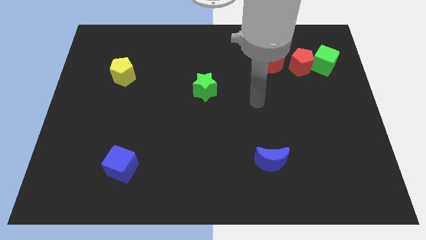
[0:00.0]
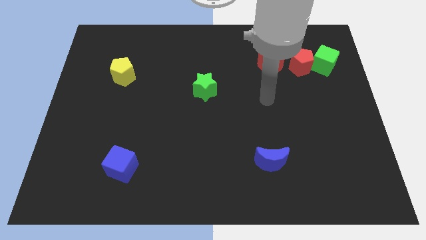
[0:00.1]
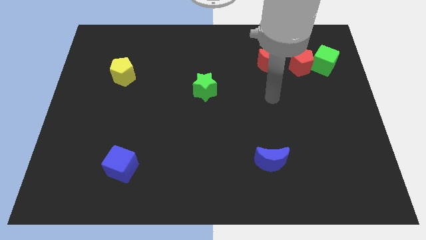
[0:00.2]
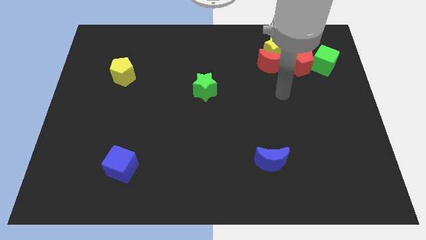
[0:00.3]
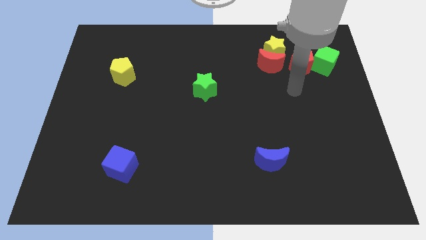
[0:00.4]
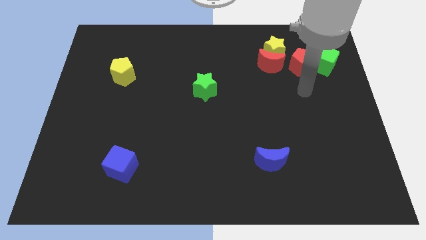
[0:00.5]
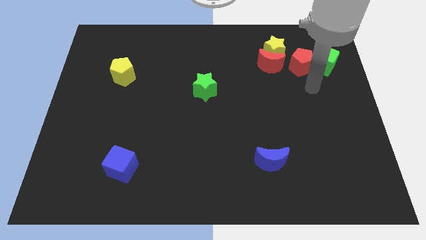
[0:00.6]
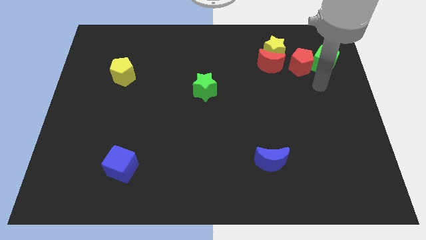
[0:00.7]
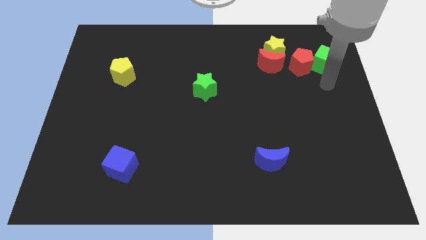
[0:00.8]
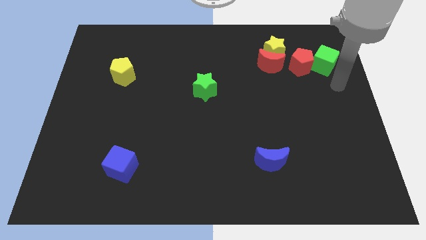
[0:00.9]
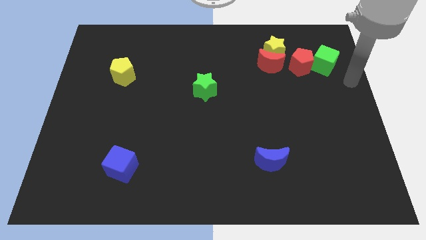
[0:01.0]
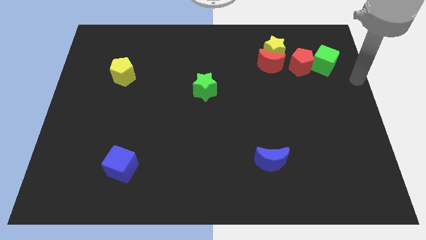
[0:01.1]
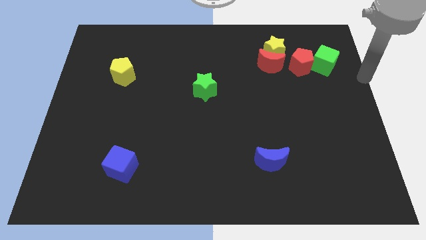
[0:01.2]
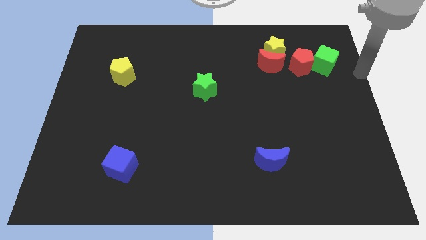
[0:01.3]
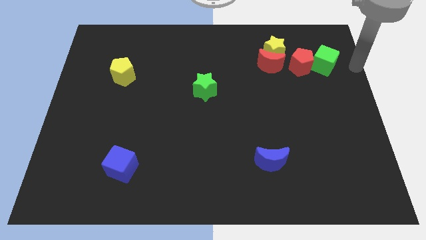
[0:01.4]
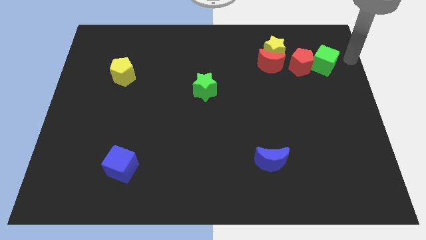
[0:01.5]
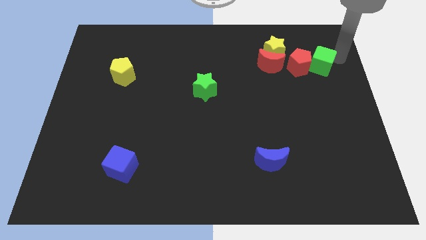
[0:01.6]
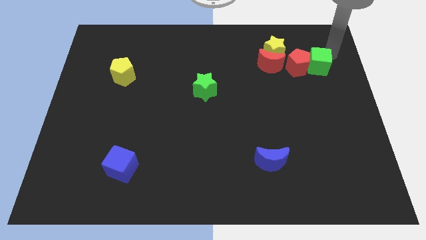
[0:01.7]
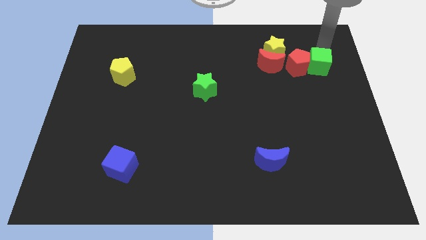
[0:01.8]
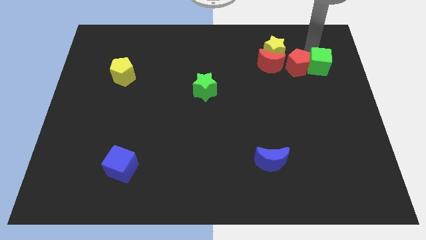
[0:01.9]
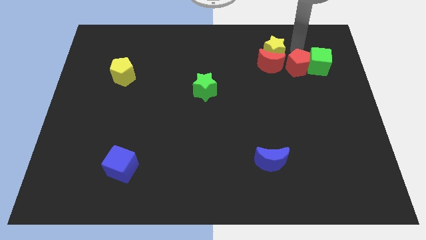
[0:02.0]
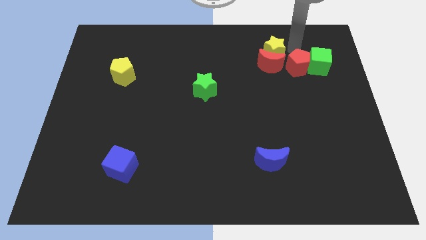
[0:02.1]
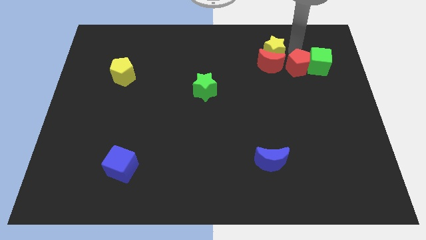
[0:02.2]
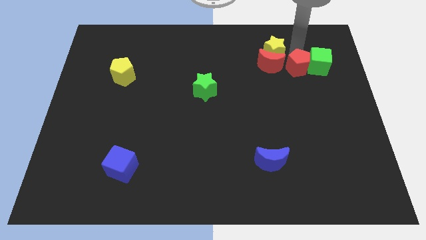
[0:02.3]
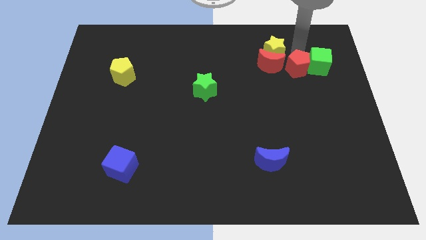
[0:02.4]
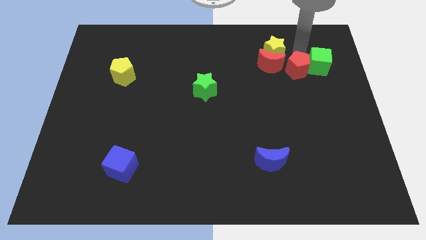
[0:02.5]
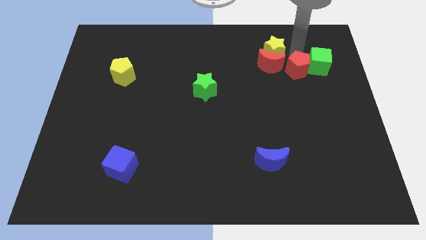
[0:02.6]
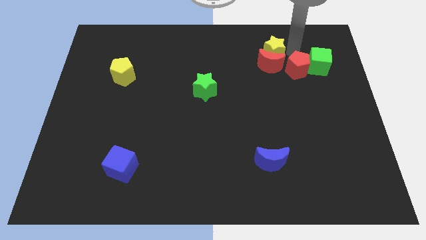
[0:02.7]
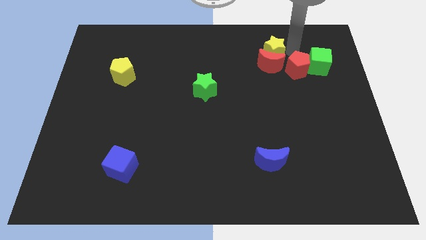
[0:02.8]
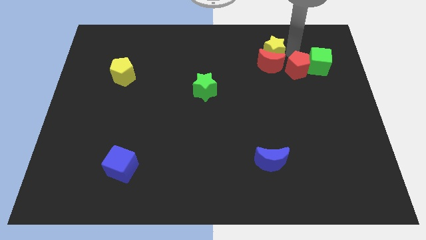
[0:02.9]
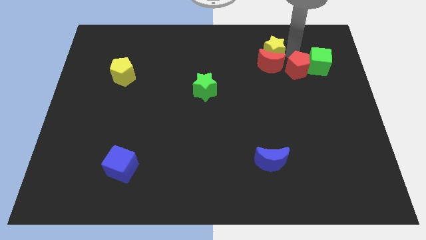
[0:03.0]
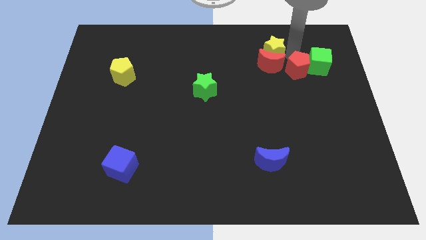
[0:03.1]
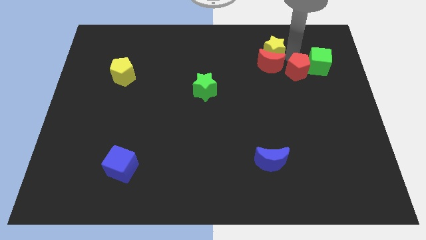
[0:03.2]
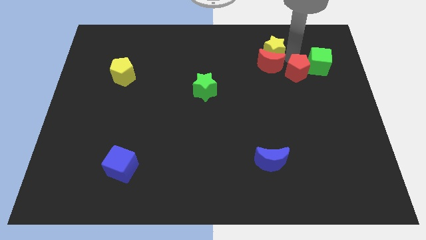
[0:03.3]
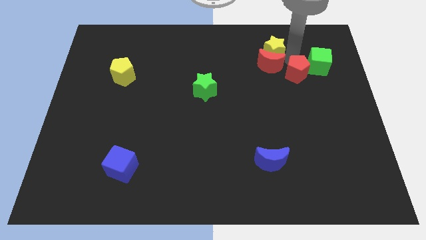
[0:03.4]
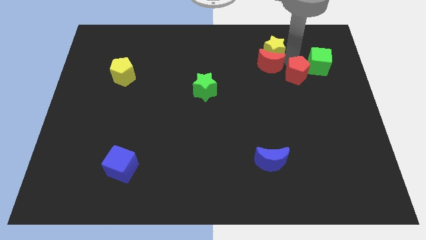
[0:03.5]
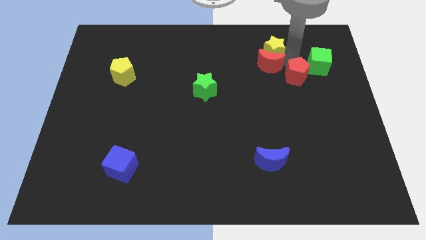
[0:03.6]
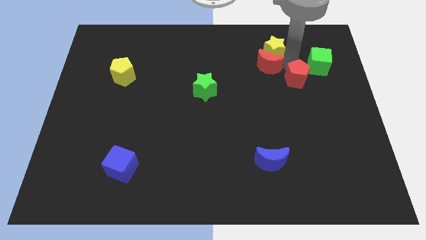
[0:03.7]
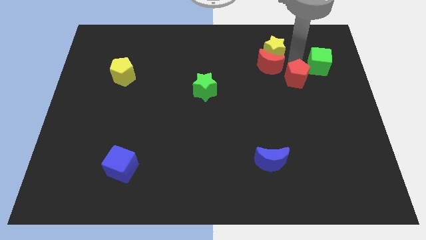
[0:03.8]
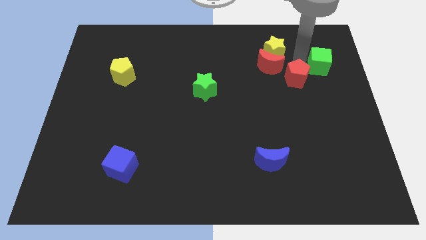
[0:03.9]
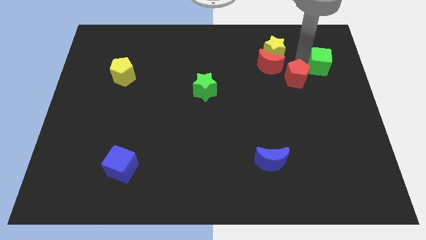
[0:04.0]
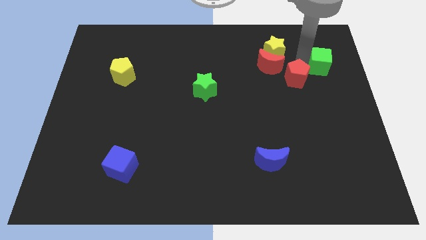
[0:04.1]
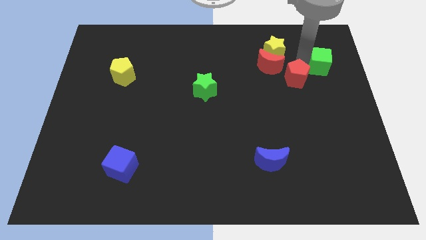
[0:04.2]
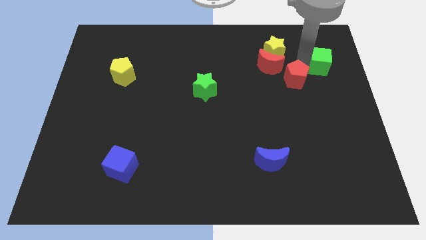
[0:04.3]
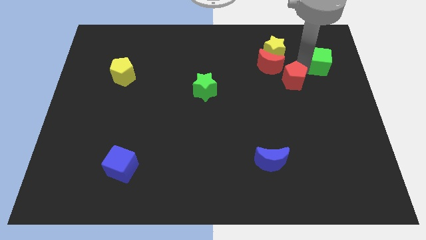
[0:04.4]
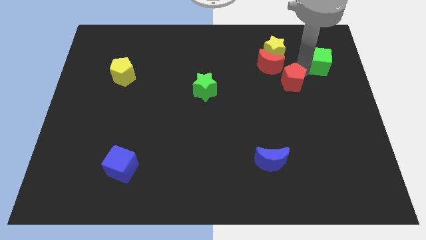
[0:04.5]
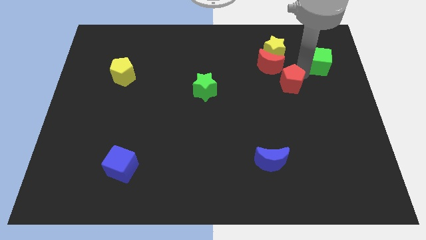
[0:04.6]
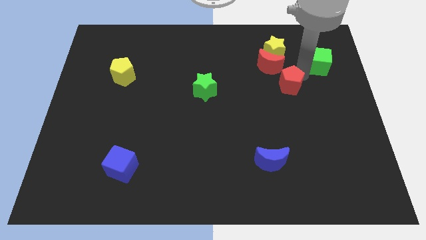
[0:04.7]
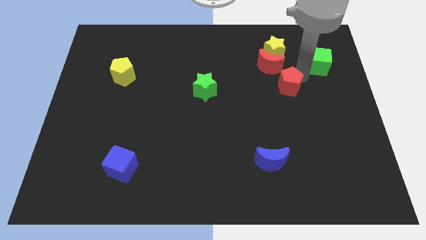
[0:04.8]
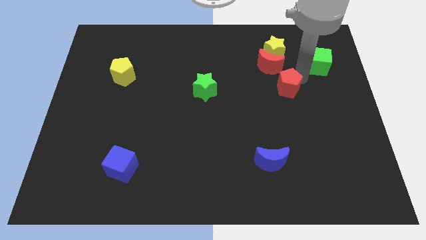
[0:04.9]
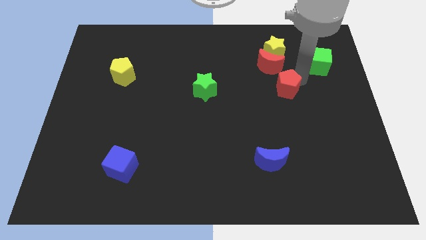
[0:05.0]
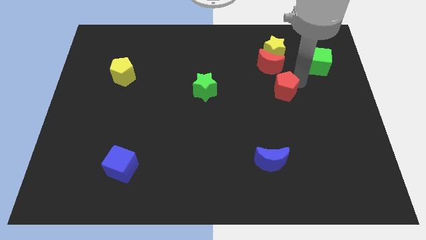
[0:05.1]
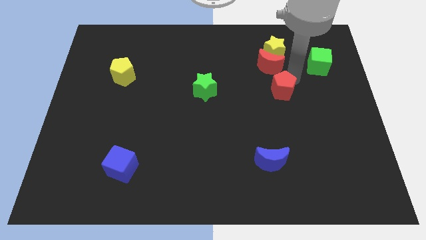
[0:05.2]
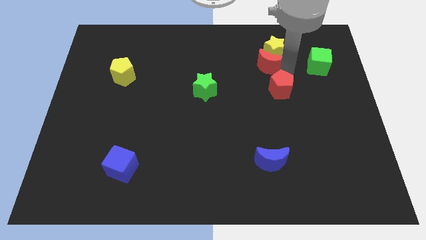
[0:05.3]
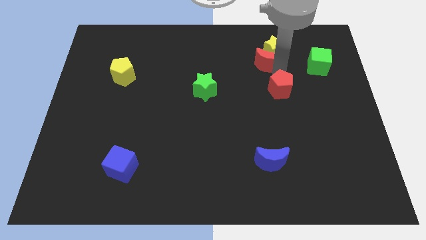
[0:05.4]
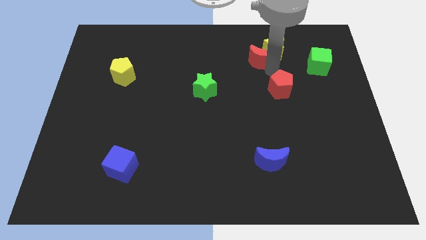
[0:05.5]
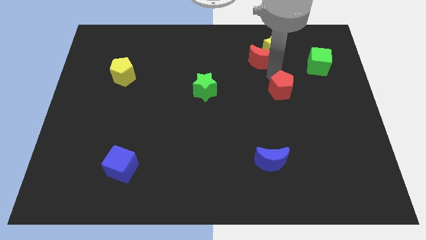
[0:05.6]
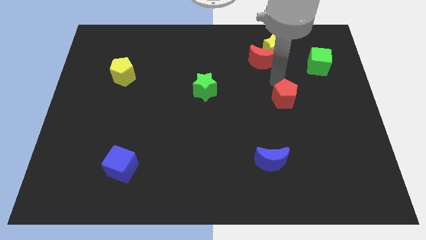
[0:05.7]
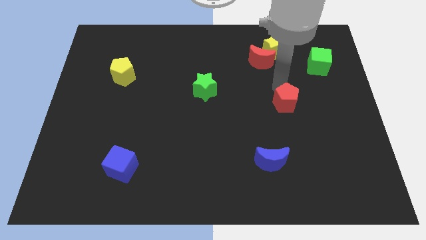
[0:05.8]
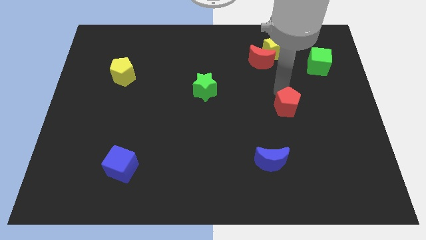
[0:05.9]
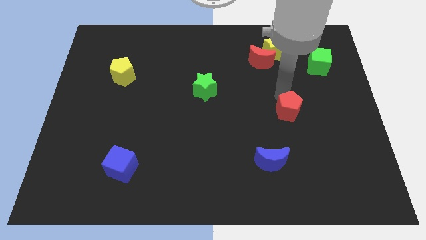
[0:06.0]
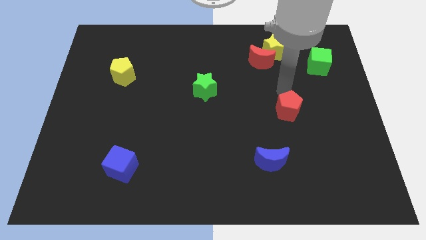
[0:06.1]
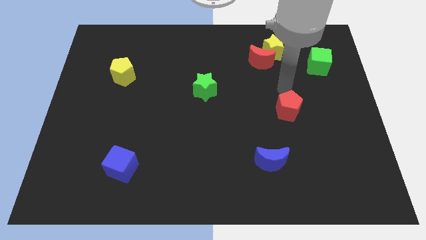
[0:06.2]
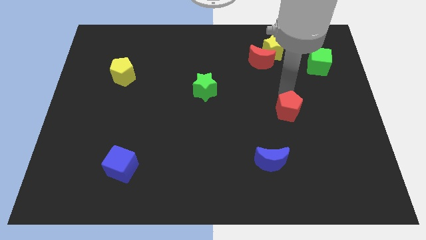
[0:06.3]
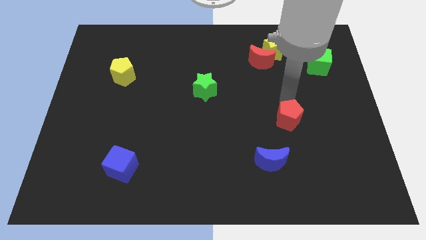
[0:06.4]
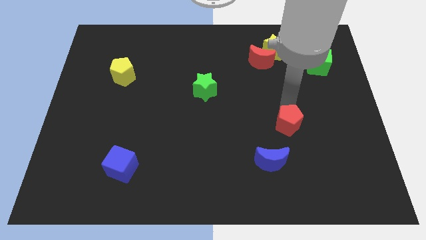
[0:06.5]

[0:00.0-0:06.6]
push the red pentagon diagonally up and to the right of the blue moon

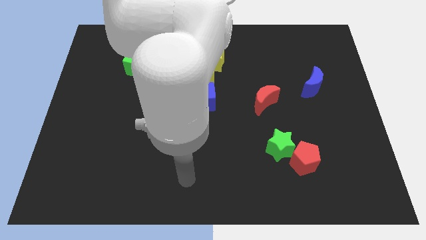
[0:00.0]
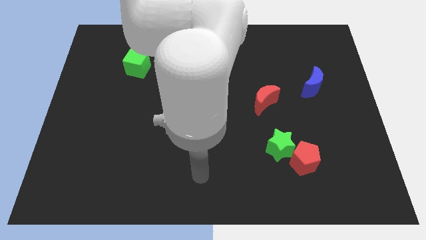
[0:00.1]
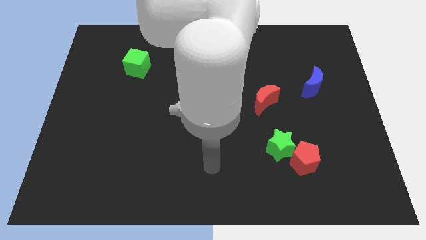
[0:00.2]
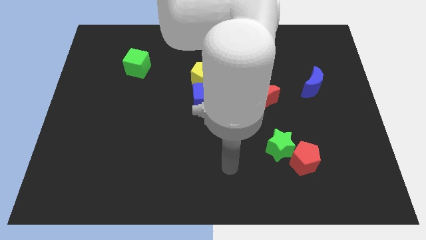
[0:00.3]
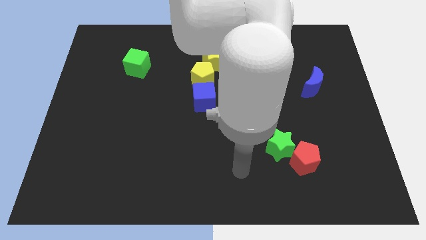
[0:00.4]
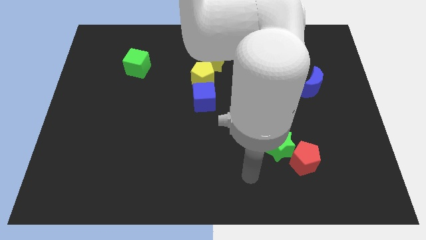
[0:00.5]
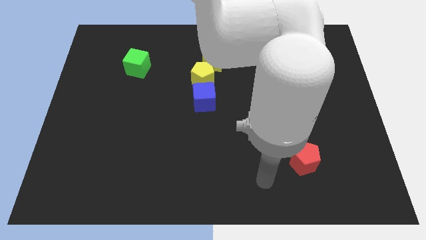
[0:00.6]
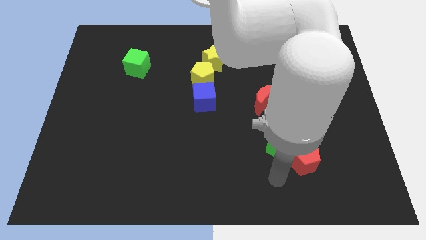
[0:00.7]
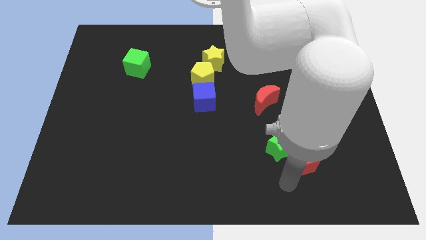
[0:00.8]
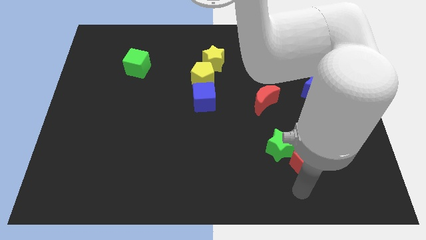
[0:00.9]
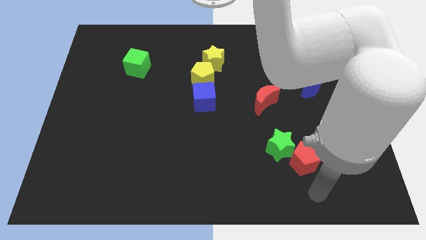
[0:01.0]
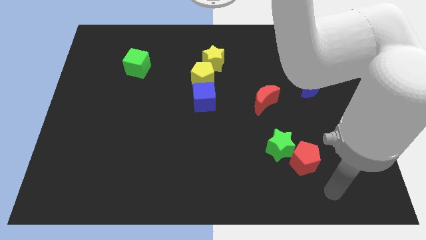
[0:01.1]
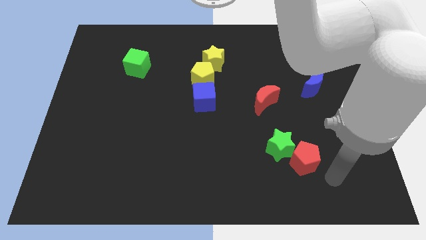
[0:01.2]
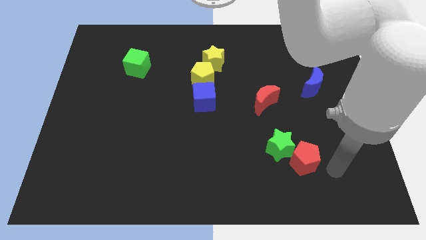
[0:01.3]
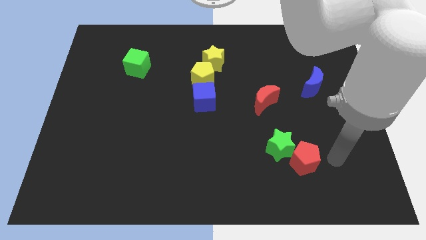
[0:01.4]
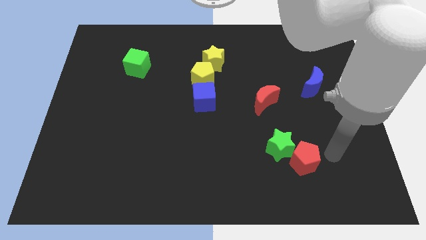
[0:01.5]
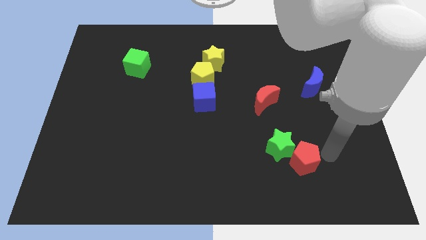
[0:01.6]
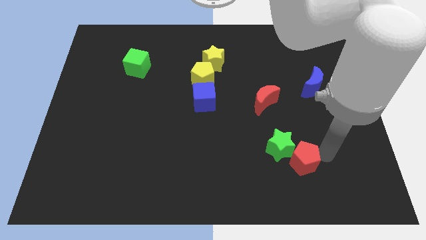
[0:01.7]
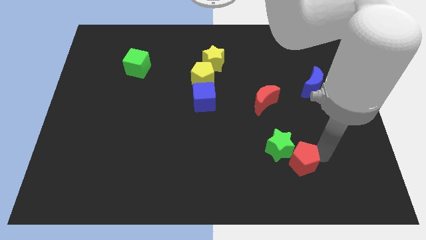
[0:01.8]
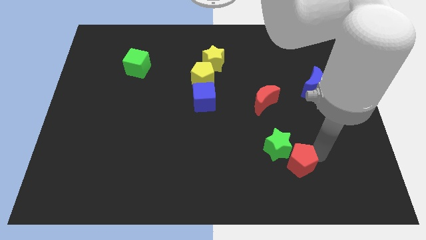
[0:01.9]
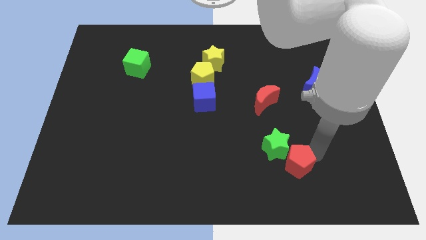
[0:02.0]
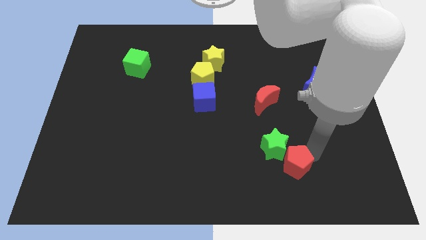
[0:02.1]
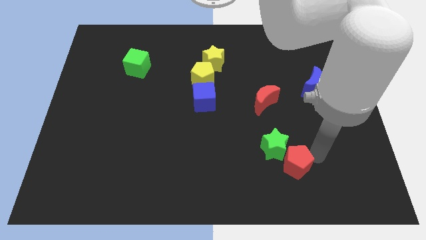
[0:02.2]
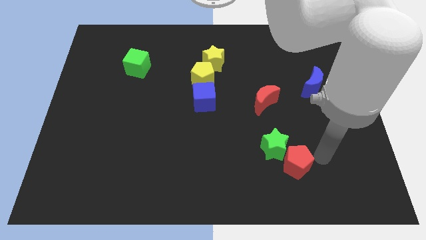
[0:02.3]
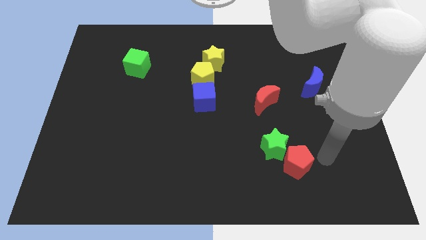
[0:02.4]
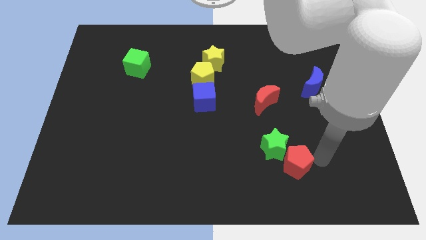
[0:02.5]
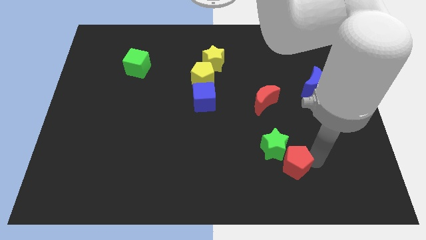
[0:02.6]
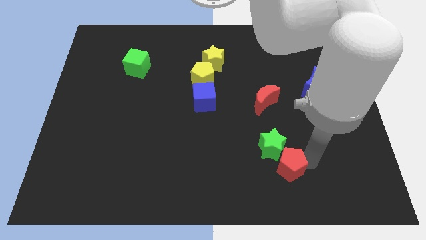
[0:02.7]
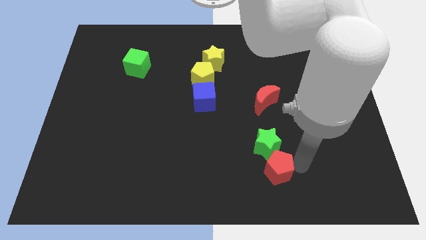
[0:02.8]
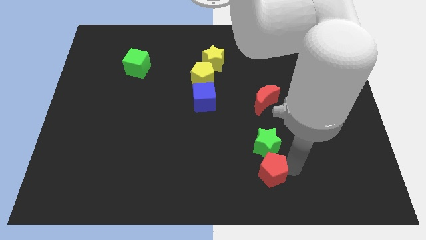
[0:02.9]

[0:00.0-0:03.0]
put the red pentagon to the bottom left of the green star
